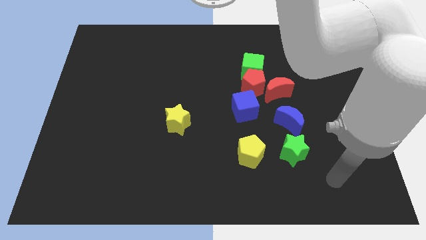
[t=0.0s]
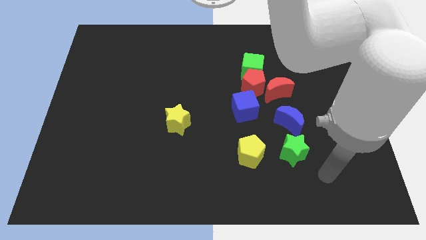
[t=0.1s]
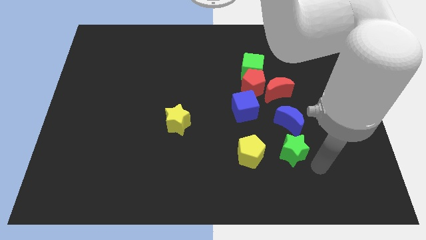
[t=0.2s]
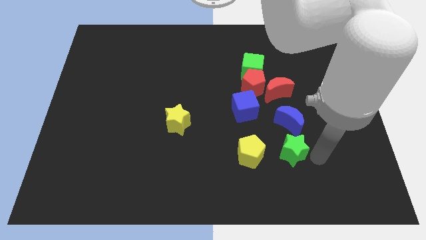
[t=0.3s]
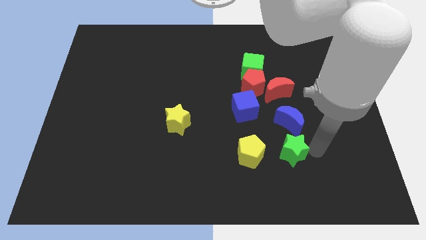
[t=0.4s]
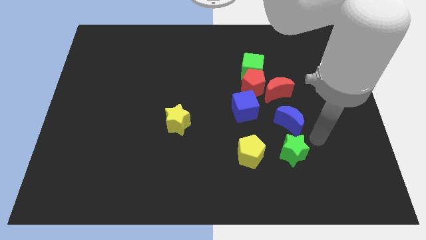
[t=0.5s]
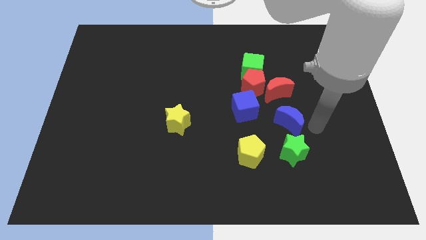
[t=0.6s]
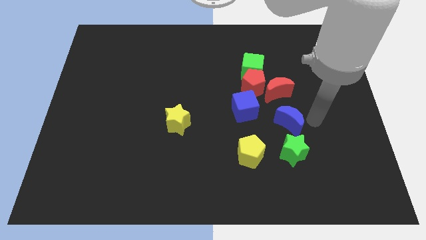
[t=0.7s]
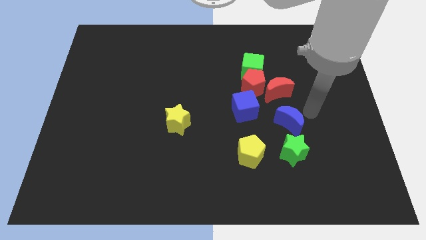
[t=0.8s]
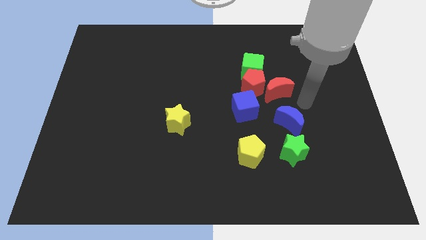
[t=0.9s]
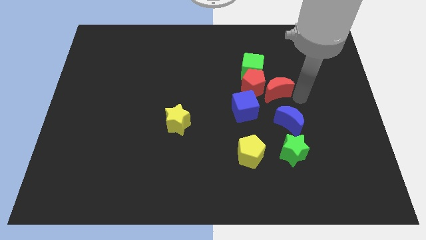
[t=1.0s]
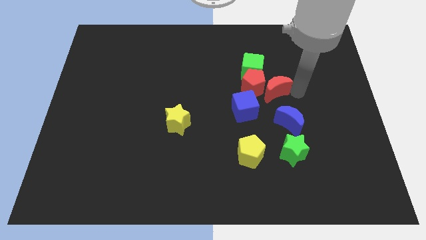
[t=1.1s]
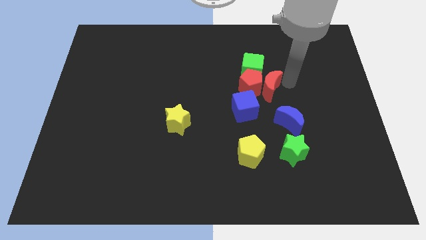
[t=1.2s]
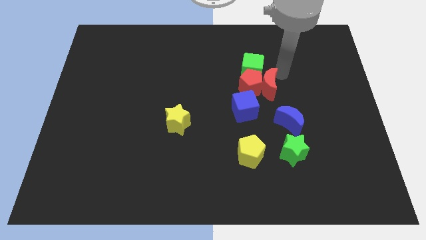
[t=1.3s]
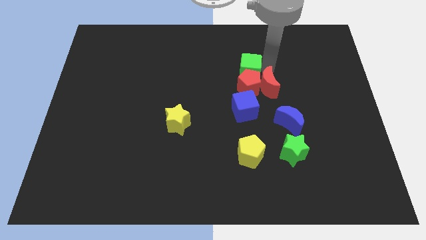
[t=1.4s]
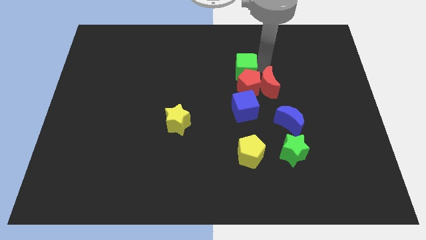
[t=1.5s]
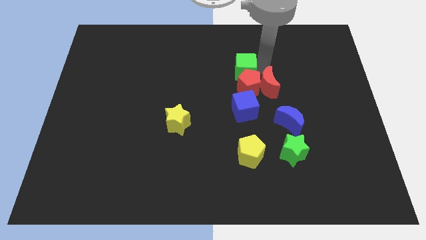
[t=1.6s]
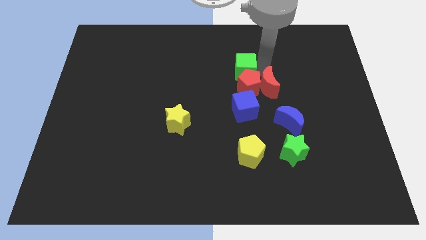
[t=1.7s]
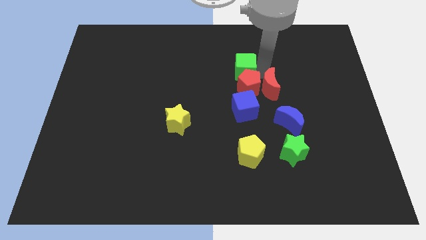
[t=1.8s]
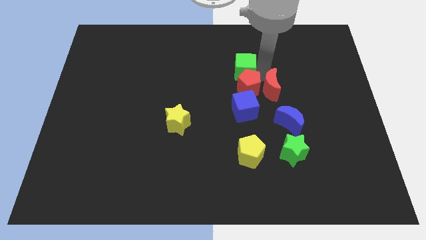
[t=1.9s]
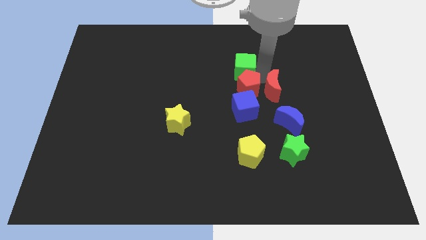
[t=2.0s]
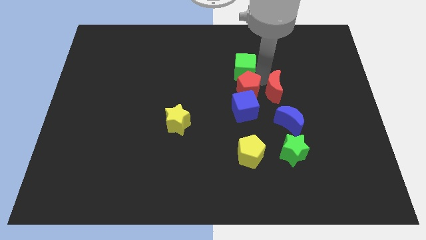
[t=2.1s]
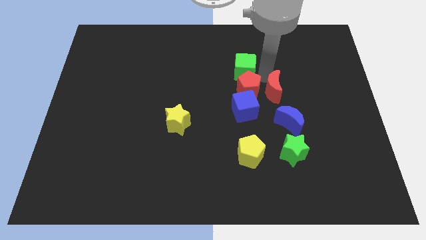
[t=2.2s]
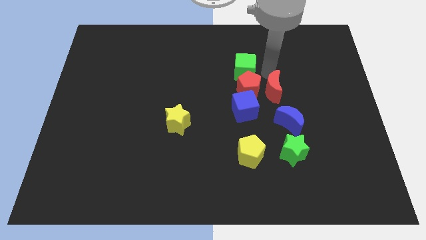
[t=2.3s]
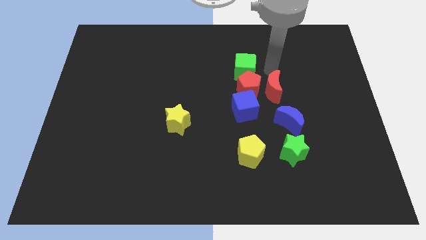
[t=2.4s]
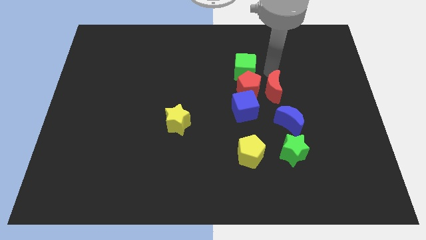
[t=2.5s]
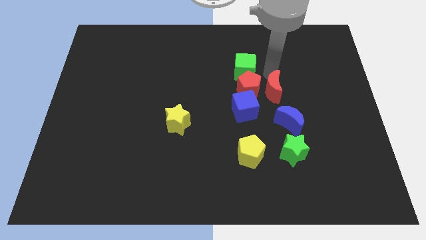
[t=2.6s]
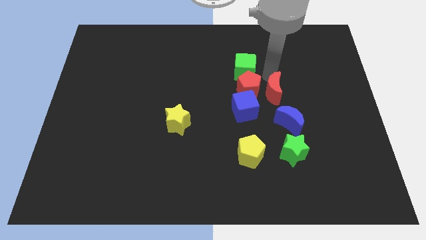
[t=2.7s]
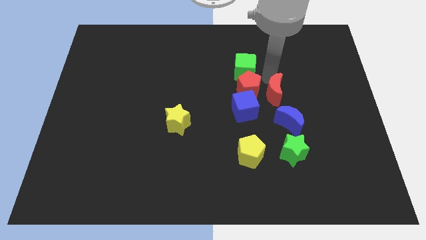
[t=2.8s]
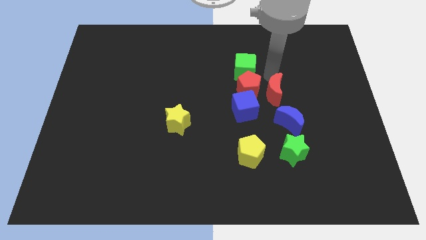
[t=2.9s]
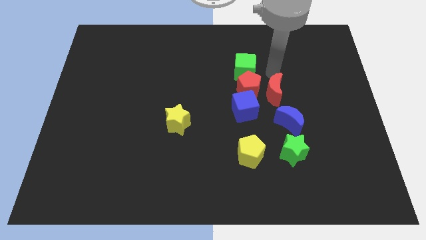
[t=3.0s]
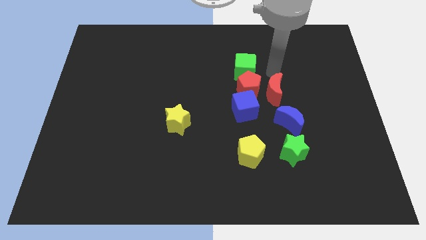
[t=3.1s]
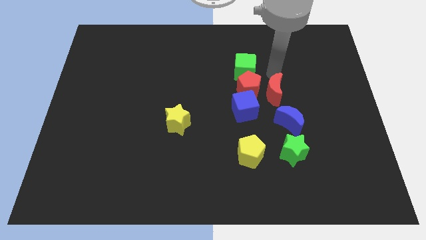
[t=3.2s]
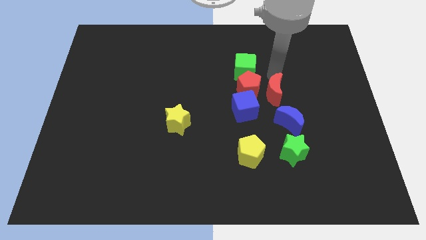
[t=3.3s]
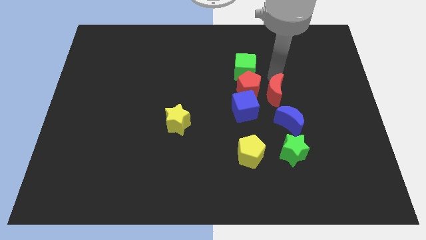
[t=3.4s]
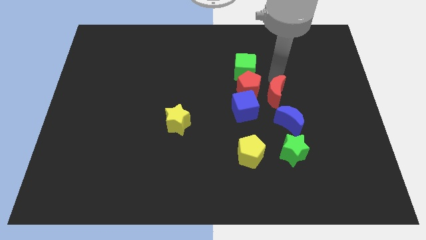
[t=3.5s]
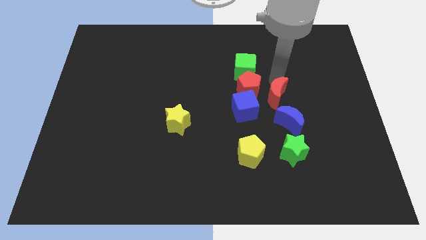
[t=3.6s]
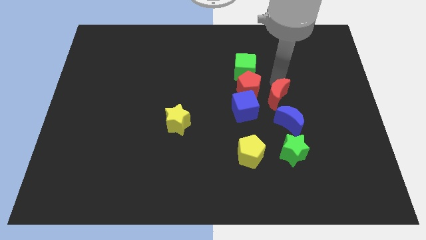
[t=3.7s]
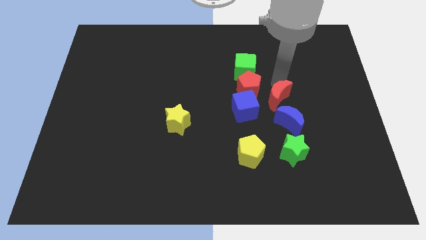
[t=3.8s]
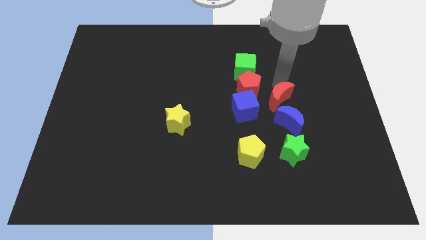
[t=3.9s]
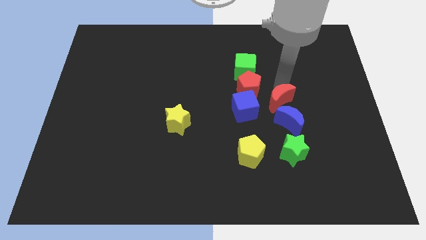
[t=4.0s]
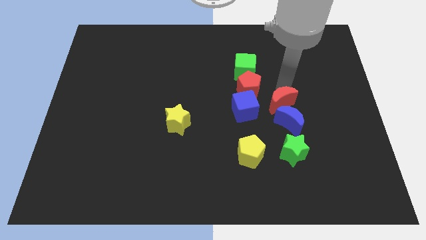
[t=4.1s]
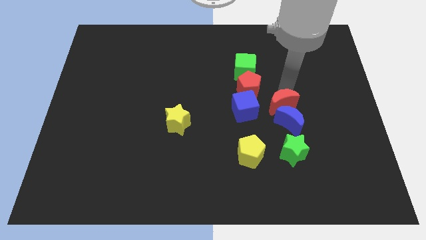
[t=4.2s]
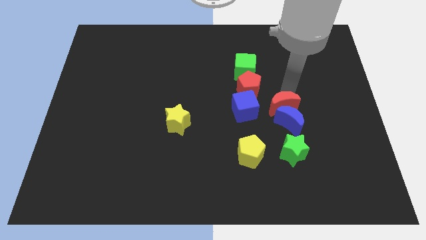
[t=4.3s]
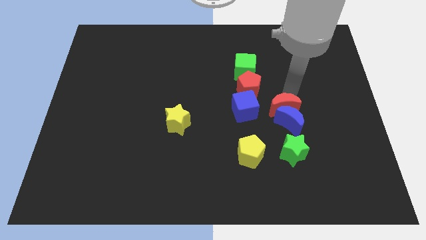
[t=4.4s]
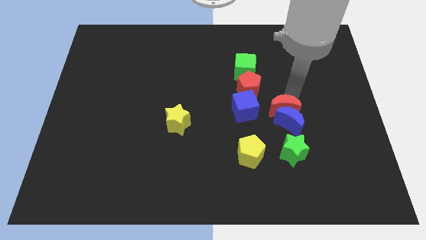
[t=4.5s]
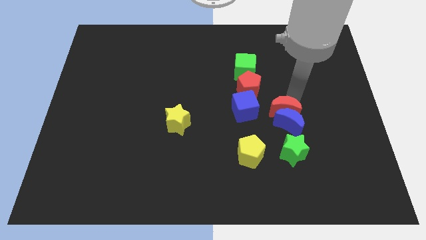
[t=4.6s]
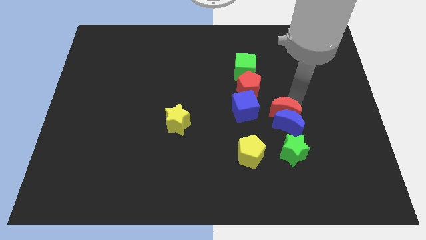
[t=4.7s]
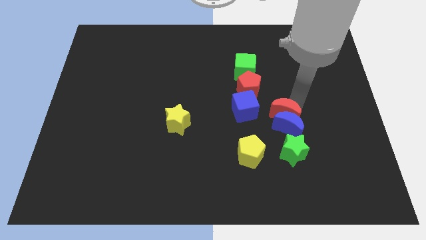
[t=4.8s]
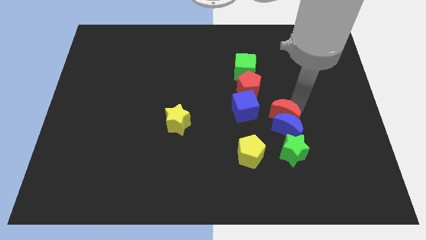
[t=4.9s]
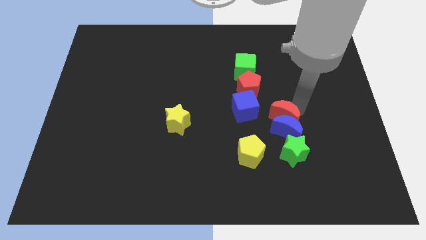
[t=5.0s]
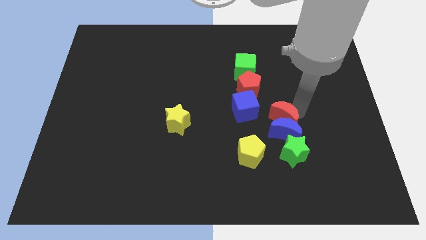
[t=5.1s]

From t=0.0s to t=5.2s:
move the red moon diagonally up and to the right of the yellow pentagon

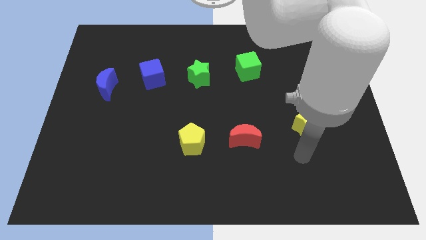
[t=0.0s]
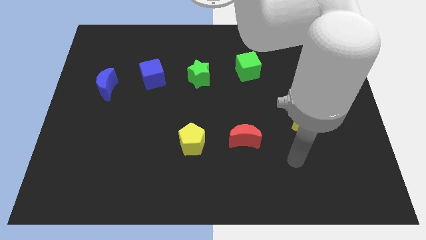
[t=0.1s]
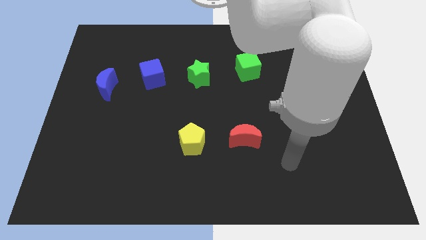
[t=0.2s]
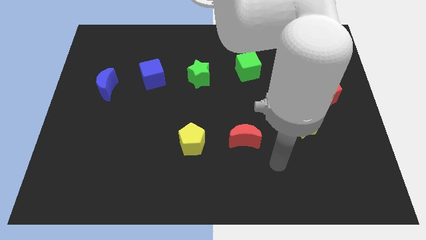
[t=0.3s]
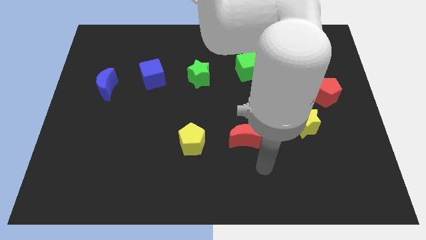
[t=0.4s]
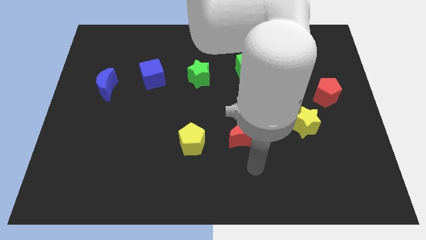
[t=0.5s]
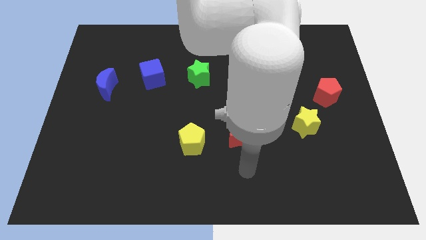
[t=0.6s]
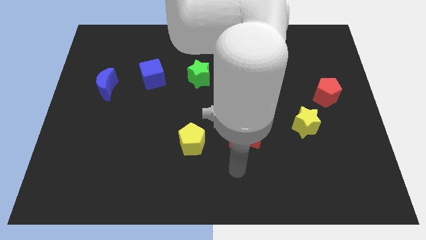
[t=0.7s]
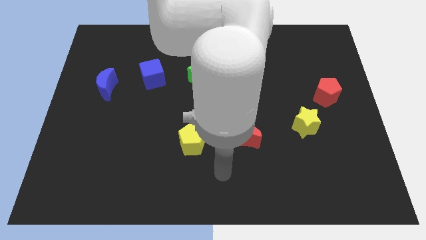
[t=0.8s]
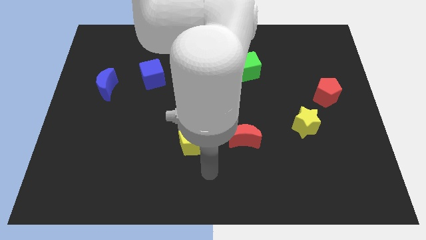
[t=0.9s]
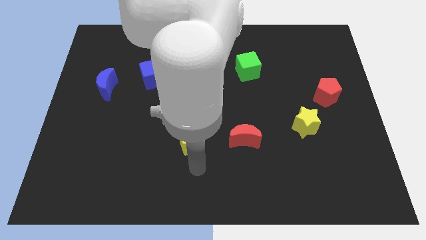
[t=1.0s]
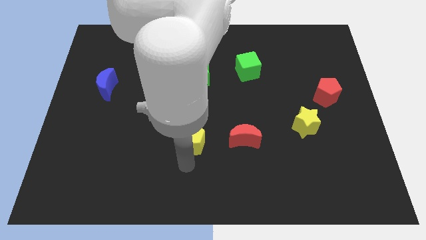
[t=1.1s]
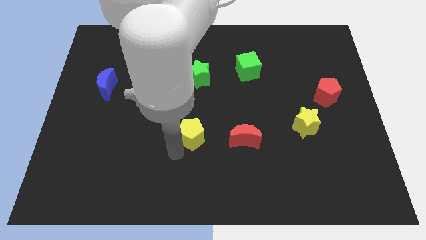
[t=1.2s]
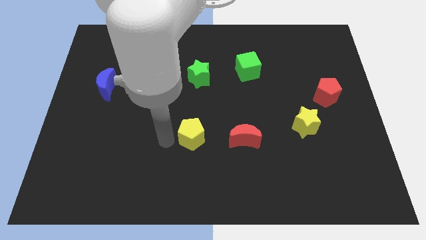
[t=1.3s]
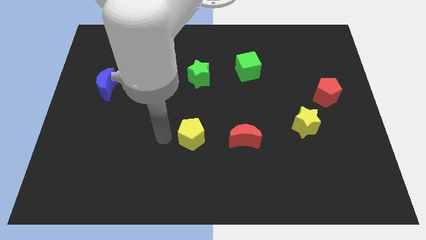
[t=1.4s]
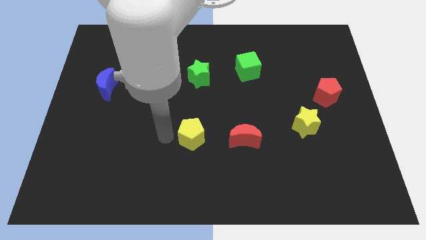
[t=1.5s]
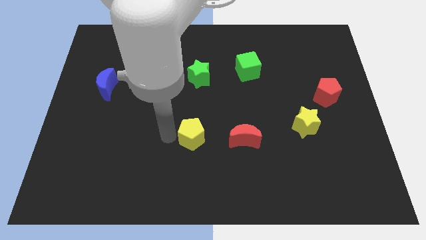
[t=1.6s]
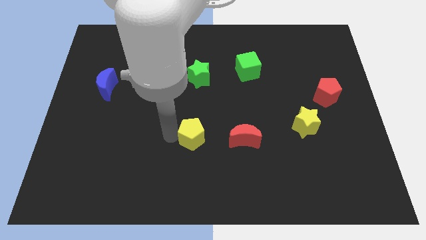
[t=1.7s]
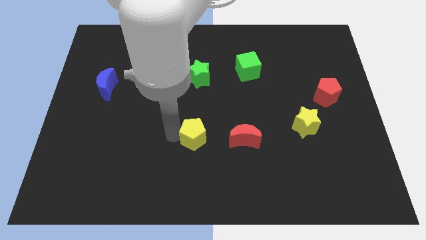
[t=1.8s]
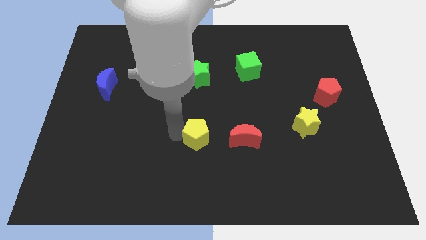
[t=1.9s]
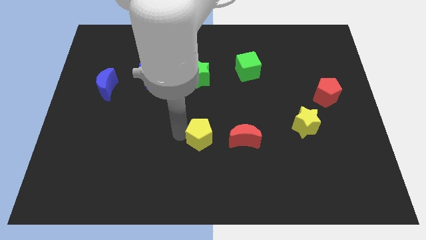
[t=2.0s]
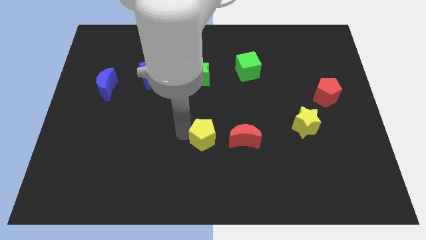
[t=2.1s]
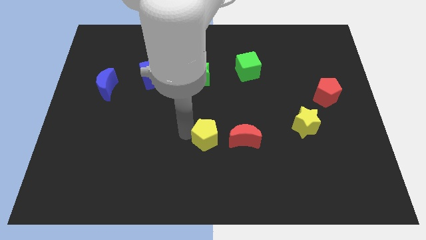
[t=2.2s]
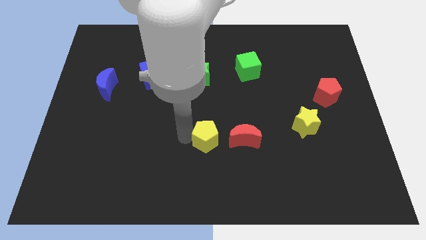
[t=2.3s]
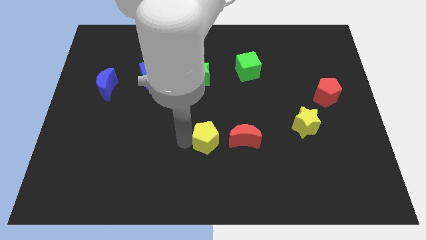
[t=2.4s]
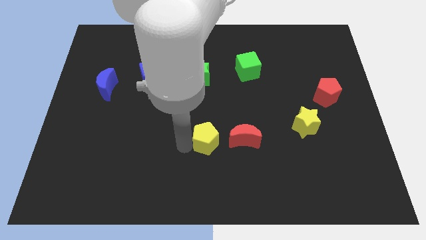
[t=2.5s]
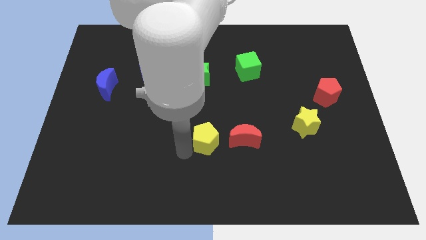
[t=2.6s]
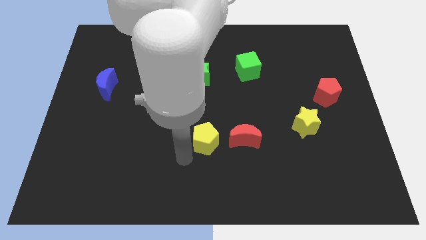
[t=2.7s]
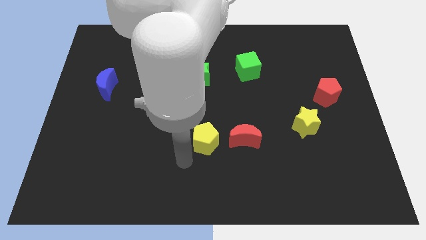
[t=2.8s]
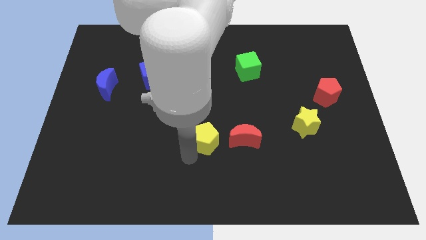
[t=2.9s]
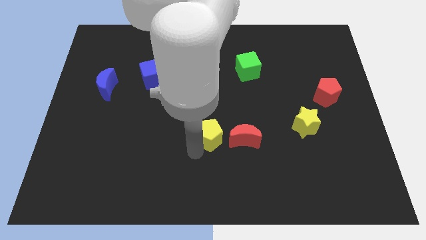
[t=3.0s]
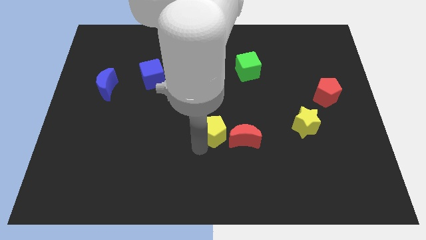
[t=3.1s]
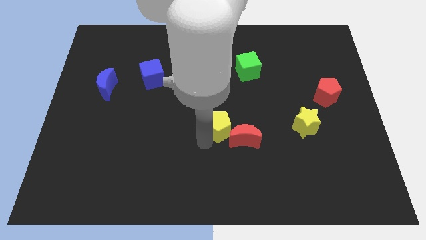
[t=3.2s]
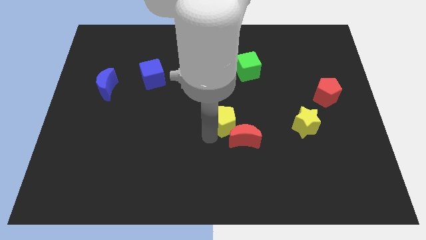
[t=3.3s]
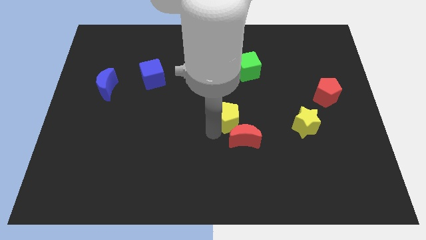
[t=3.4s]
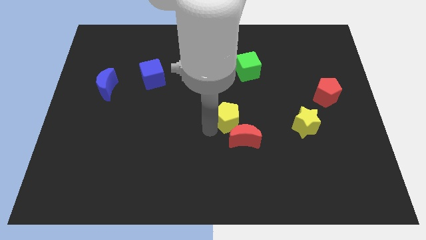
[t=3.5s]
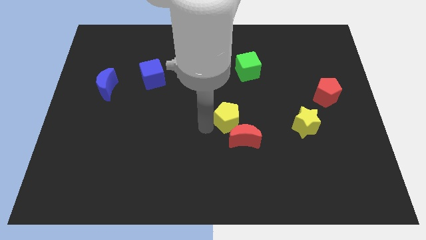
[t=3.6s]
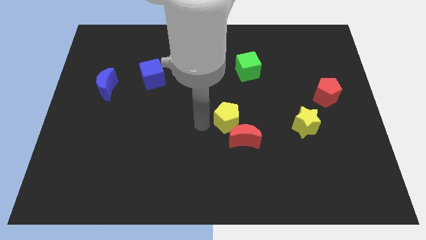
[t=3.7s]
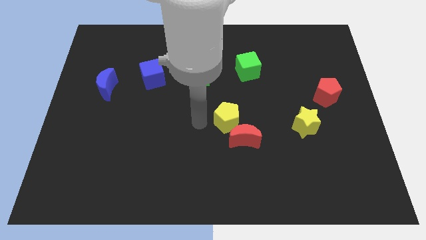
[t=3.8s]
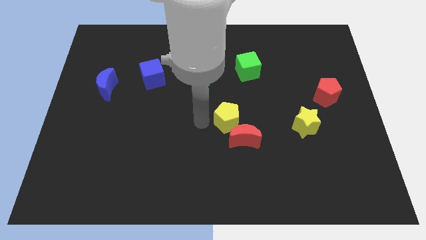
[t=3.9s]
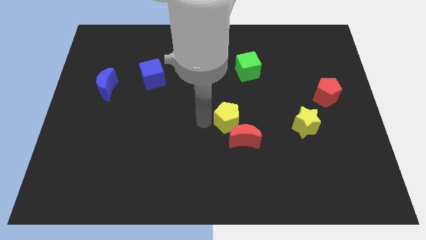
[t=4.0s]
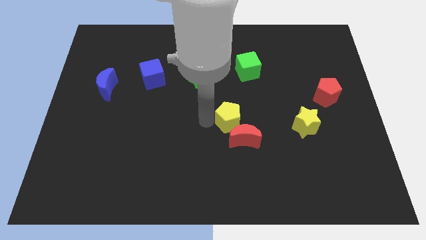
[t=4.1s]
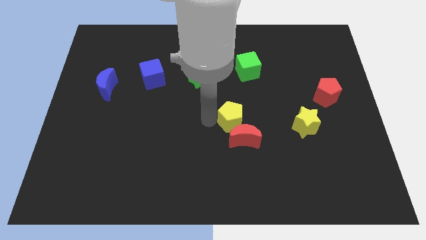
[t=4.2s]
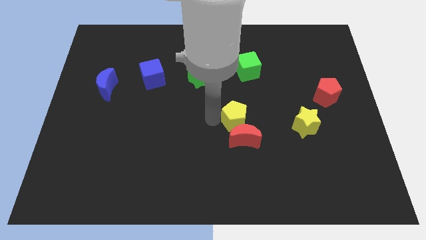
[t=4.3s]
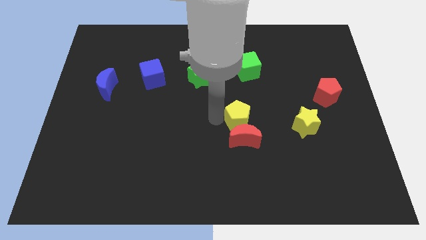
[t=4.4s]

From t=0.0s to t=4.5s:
move the yellow pentagon diagonally up and to the right of the red moon
